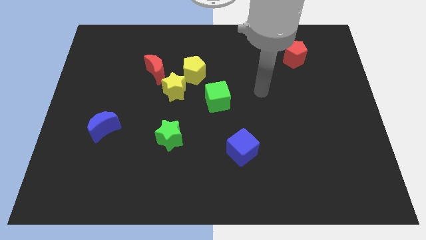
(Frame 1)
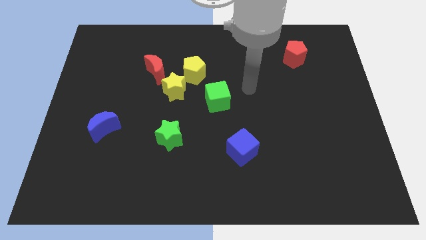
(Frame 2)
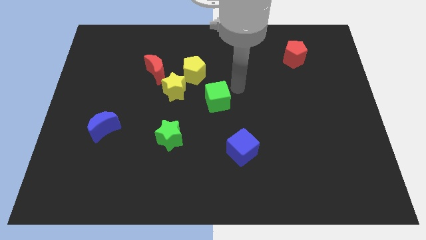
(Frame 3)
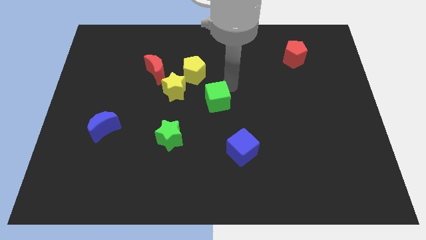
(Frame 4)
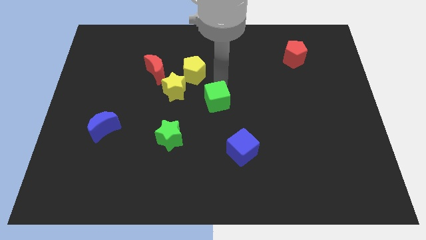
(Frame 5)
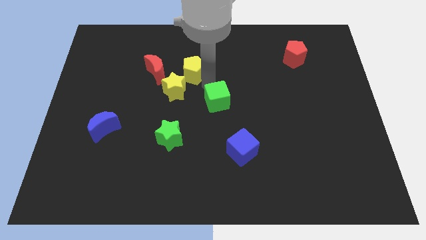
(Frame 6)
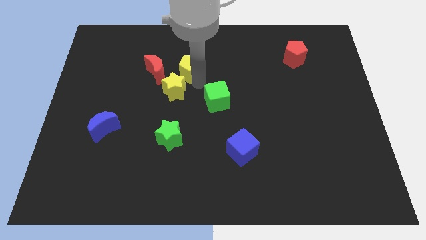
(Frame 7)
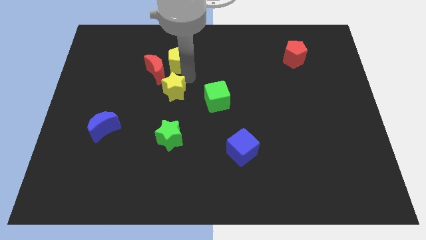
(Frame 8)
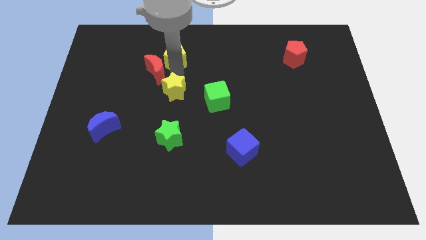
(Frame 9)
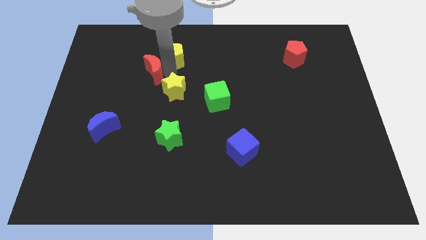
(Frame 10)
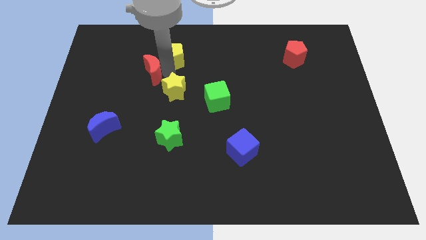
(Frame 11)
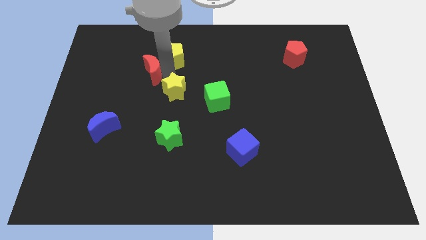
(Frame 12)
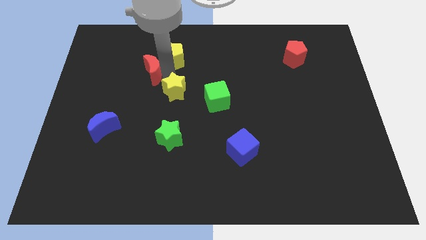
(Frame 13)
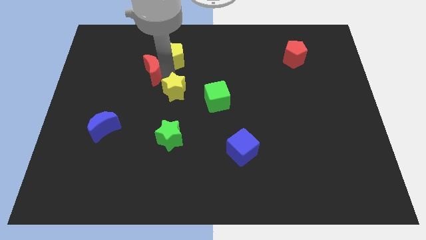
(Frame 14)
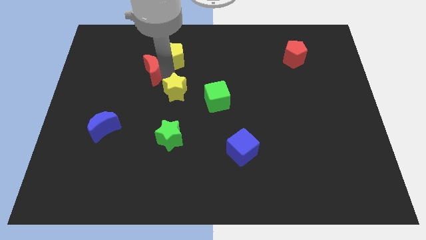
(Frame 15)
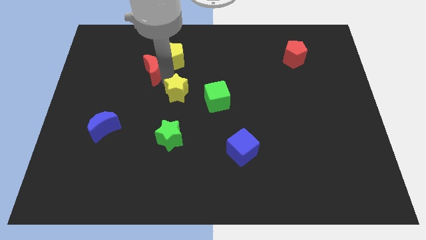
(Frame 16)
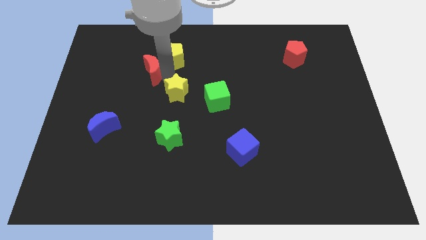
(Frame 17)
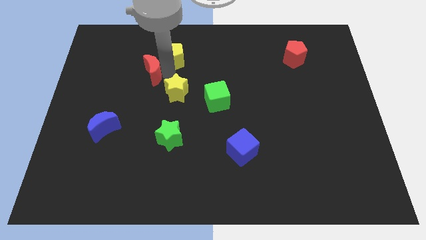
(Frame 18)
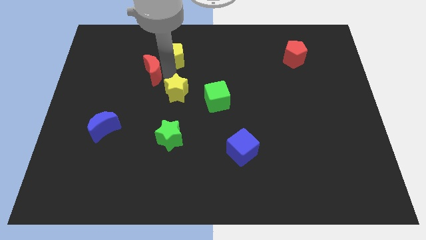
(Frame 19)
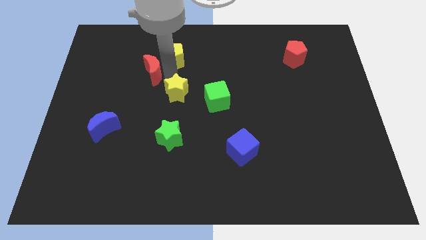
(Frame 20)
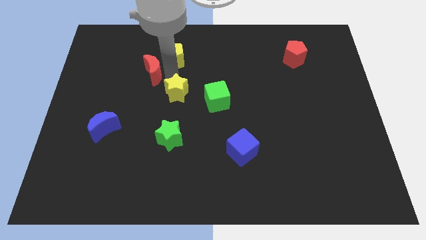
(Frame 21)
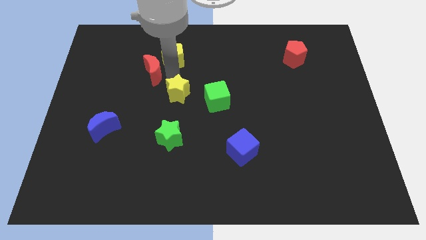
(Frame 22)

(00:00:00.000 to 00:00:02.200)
separate the yellow star from the yellow pentagon and red moon

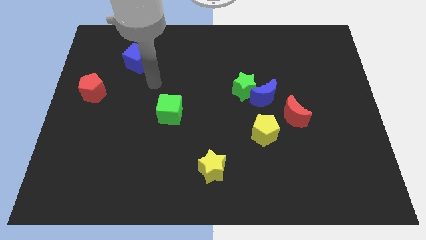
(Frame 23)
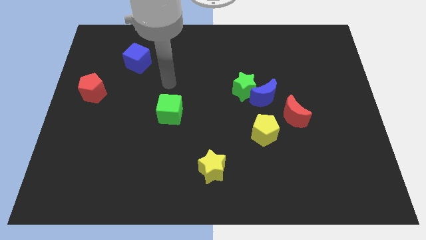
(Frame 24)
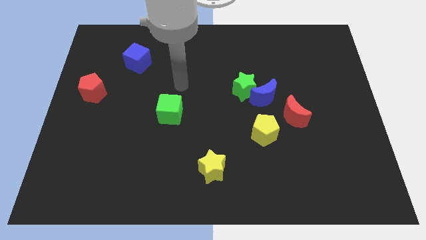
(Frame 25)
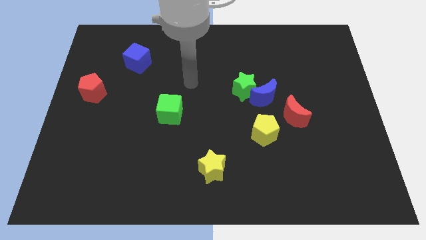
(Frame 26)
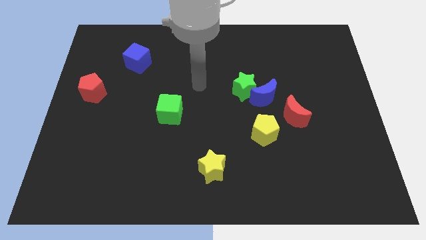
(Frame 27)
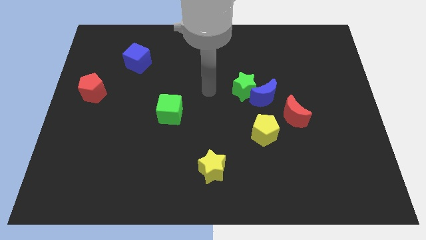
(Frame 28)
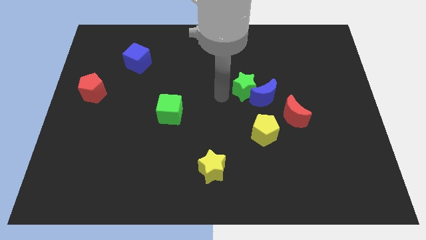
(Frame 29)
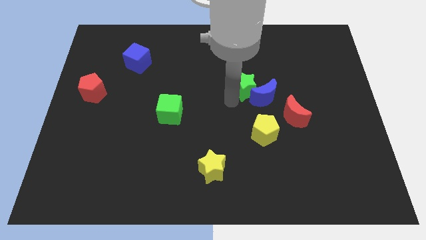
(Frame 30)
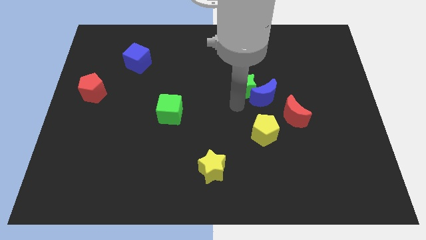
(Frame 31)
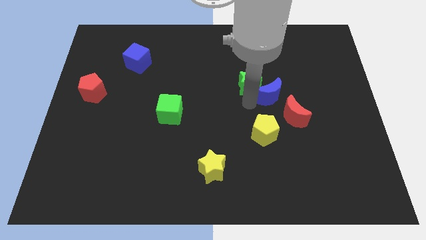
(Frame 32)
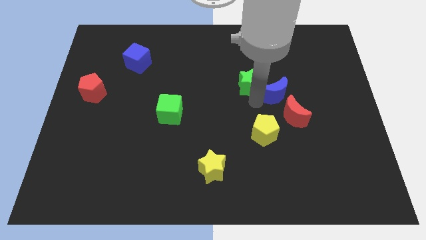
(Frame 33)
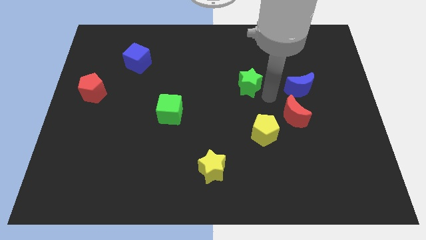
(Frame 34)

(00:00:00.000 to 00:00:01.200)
move the green star away from the blue moon

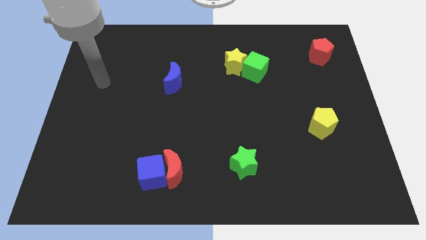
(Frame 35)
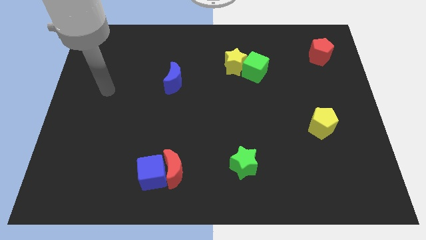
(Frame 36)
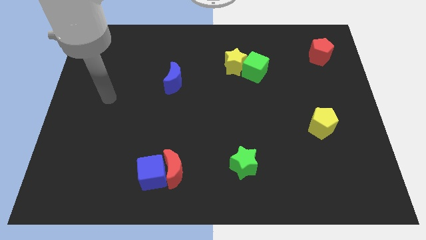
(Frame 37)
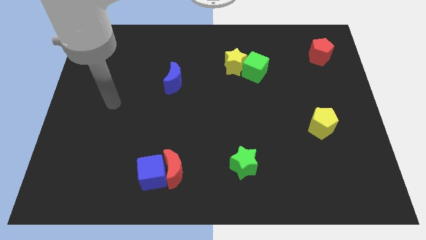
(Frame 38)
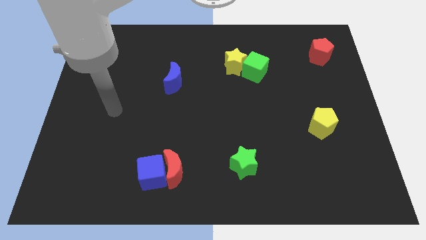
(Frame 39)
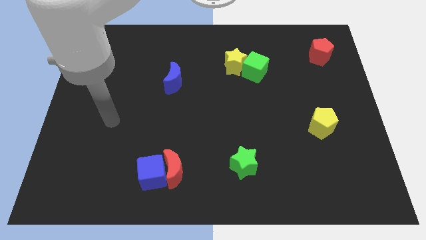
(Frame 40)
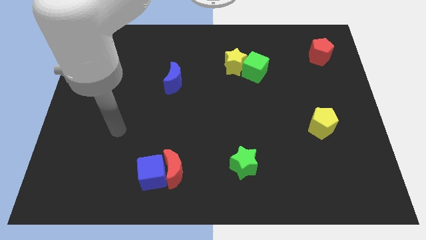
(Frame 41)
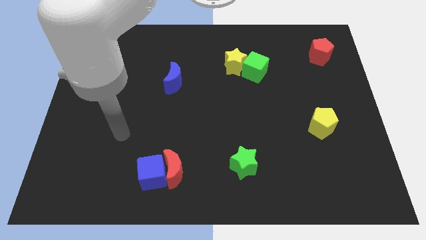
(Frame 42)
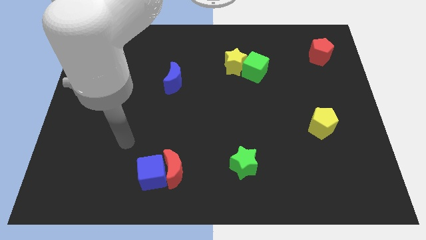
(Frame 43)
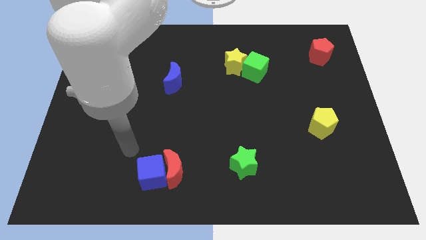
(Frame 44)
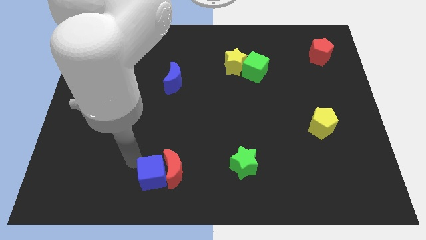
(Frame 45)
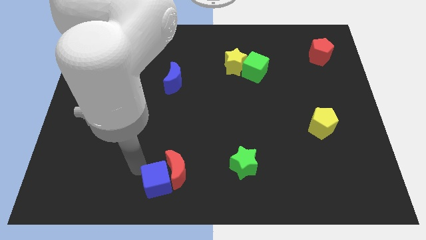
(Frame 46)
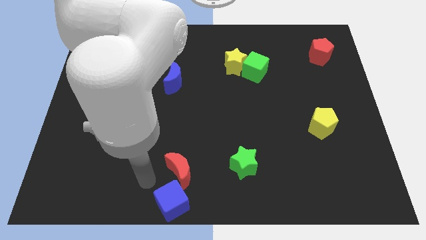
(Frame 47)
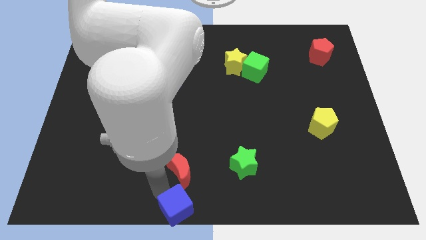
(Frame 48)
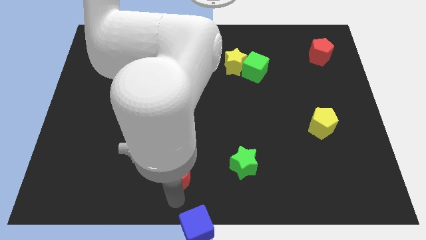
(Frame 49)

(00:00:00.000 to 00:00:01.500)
pull the red moon apart from the blue cube

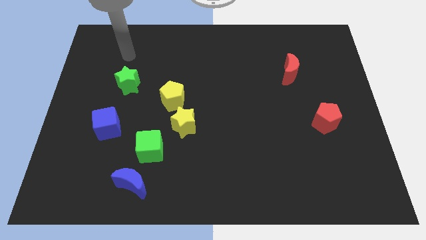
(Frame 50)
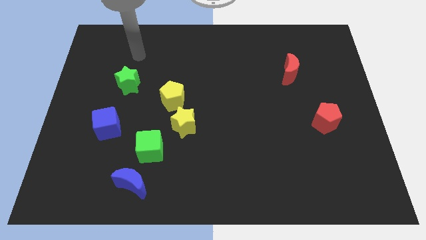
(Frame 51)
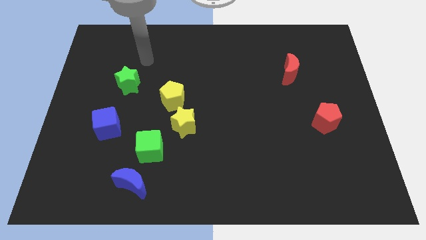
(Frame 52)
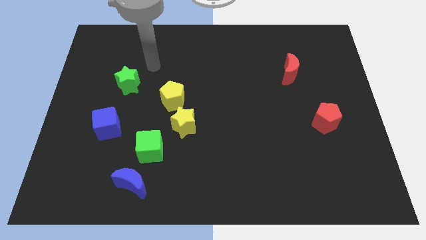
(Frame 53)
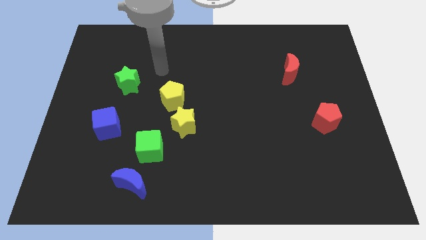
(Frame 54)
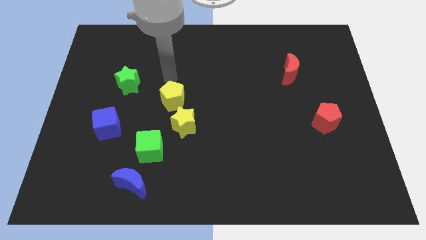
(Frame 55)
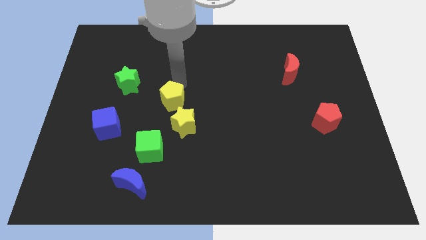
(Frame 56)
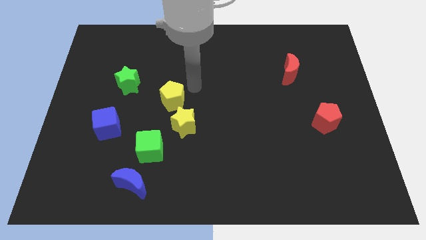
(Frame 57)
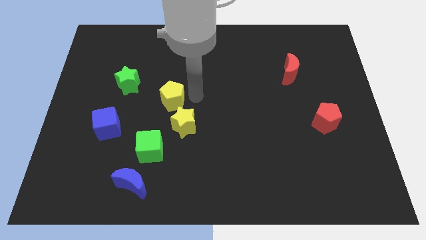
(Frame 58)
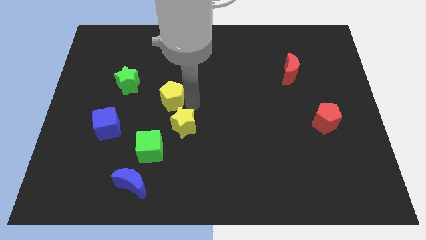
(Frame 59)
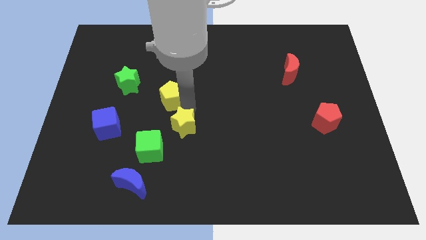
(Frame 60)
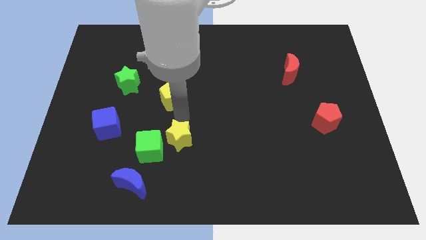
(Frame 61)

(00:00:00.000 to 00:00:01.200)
move the yellow pentagon away from the yellow star

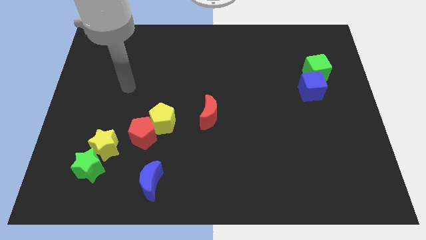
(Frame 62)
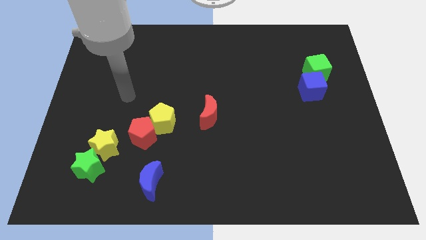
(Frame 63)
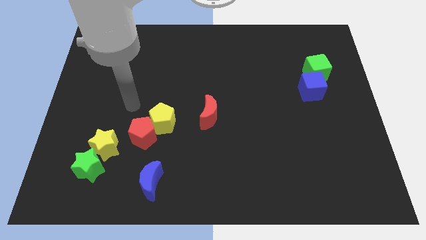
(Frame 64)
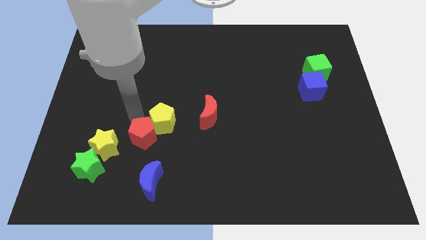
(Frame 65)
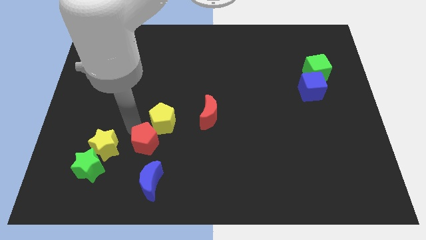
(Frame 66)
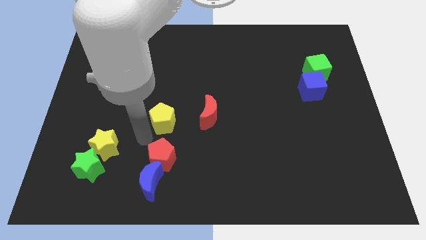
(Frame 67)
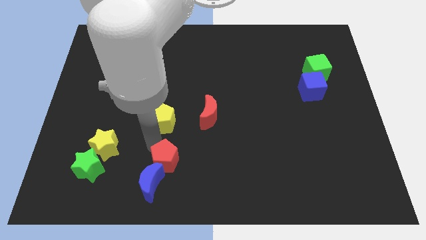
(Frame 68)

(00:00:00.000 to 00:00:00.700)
move the yellow pentagon away from the red pentagon

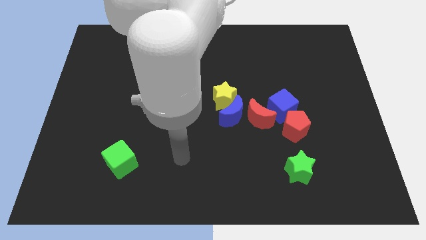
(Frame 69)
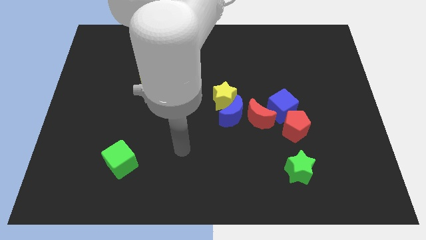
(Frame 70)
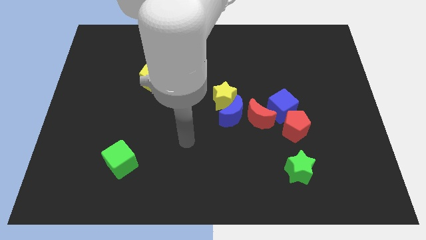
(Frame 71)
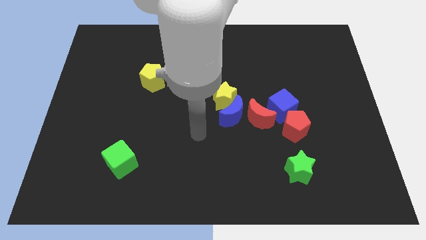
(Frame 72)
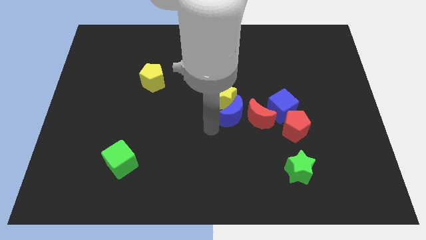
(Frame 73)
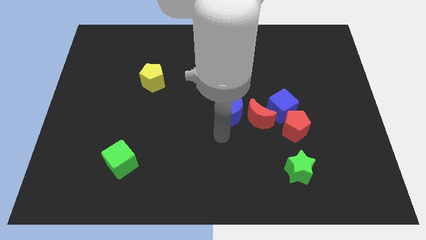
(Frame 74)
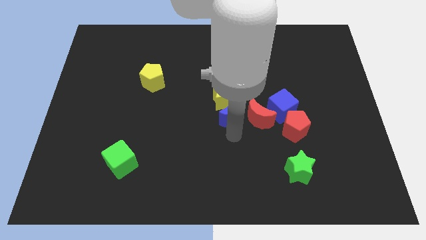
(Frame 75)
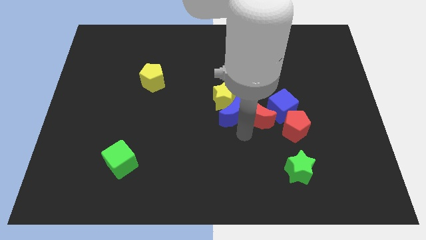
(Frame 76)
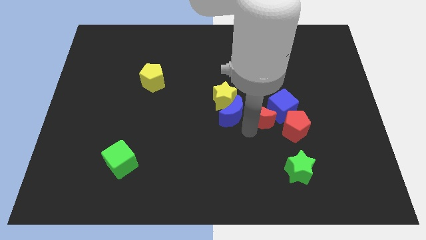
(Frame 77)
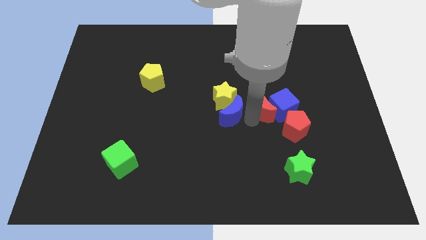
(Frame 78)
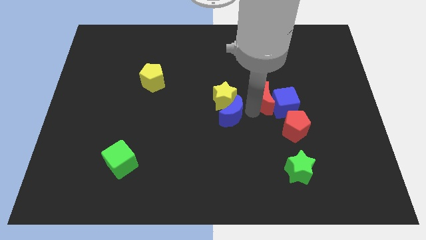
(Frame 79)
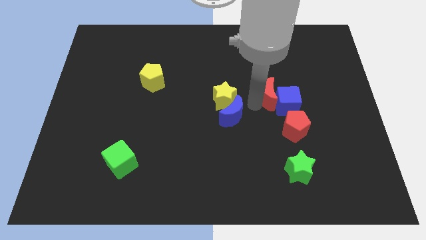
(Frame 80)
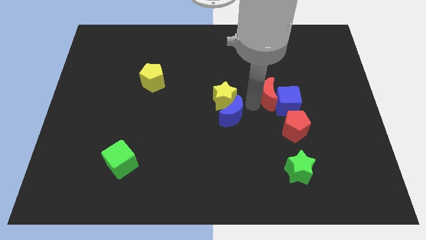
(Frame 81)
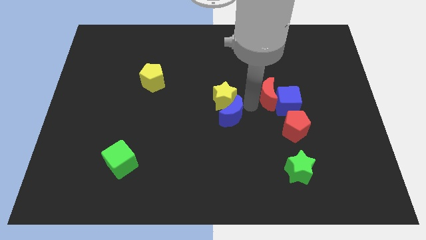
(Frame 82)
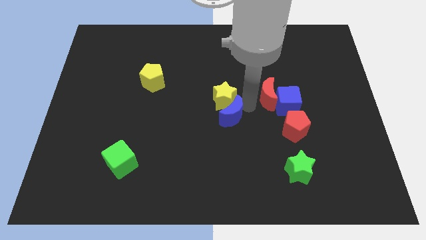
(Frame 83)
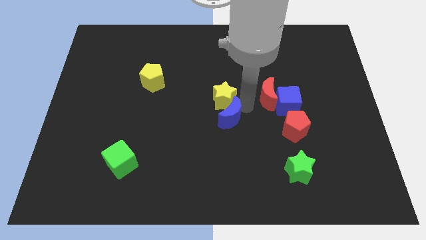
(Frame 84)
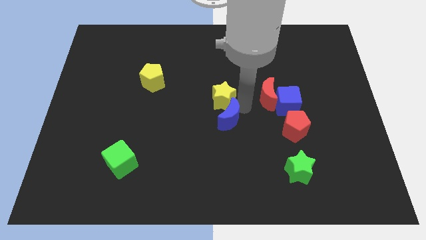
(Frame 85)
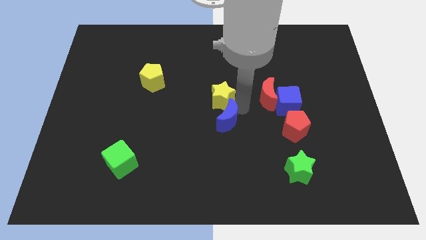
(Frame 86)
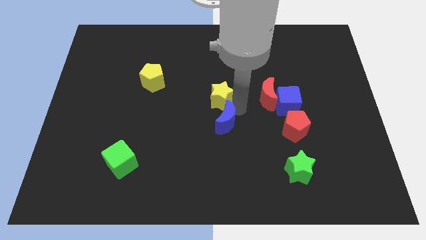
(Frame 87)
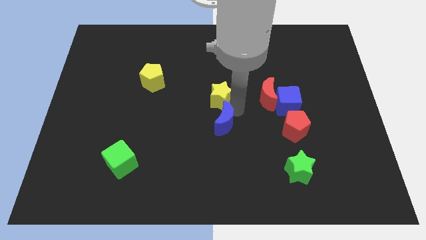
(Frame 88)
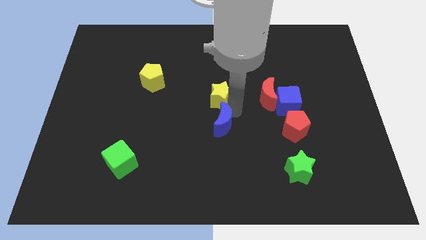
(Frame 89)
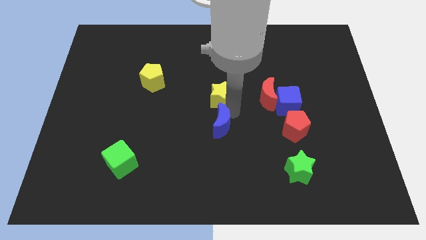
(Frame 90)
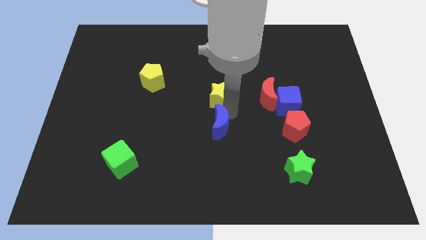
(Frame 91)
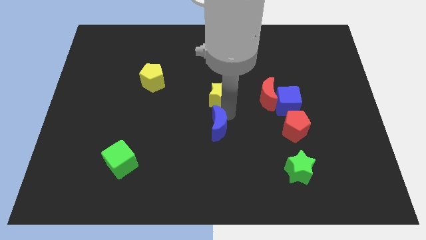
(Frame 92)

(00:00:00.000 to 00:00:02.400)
separate the blue moon from the yellow star and red moon

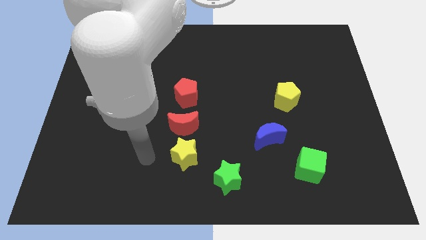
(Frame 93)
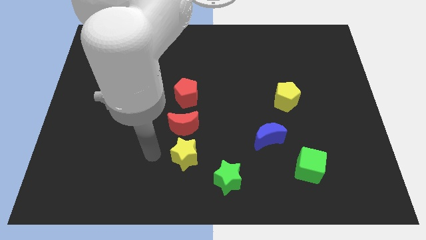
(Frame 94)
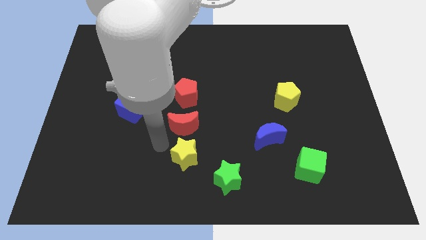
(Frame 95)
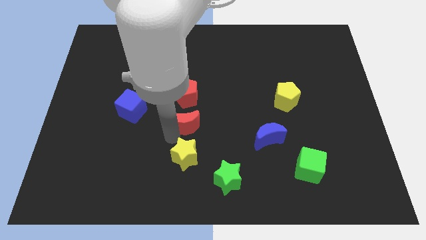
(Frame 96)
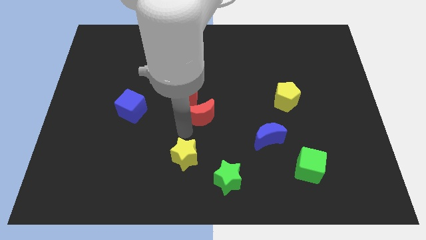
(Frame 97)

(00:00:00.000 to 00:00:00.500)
pull the yellow star apart from the red moon
